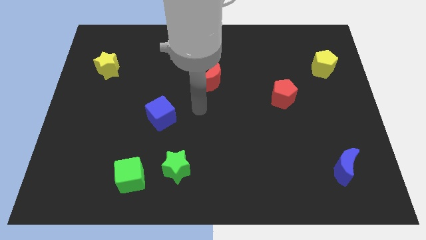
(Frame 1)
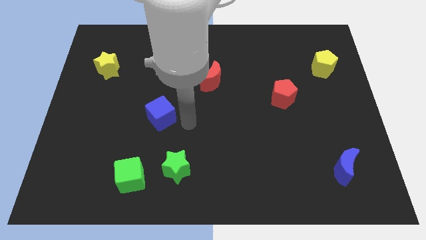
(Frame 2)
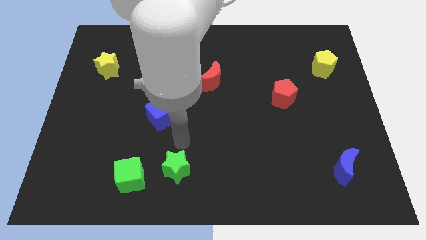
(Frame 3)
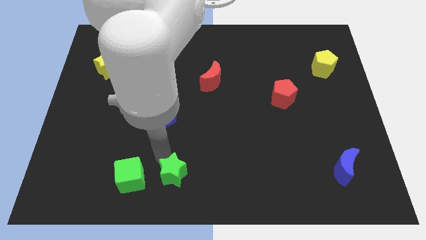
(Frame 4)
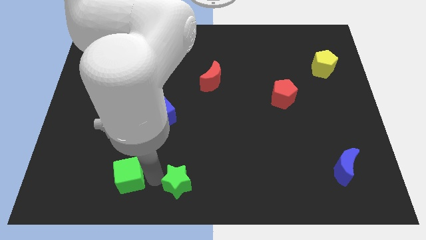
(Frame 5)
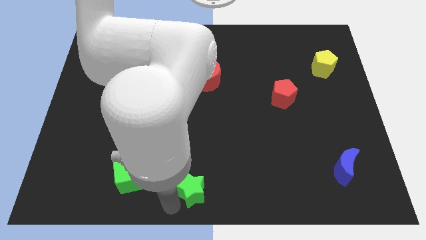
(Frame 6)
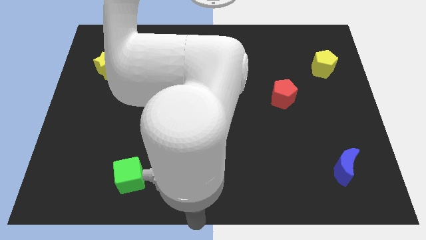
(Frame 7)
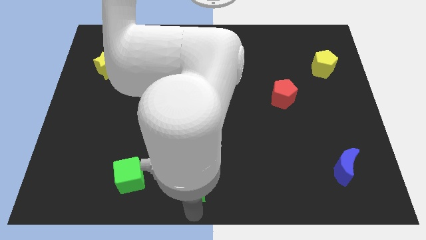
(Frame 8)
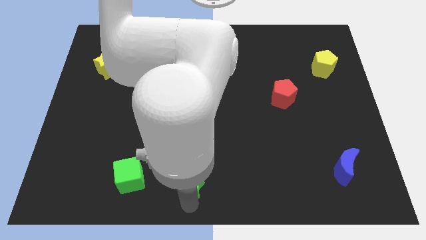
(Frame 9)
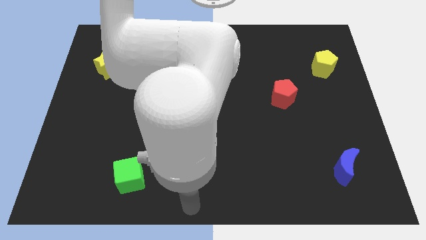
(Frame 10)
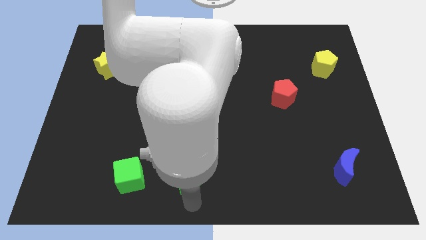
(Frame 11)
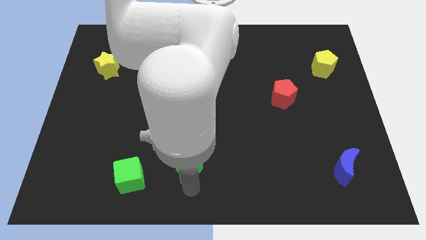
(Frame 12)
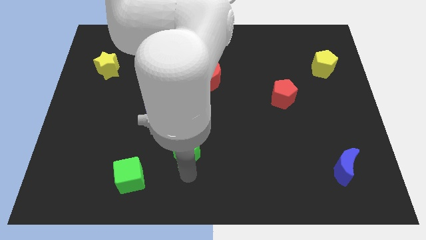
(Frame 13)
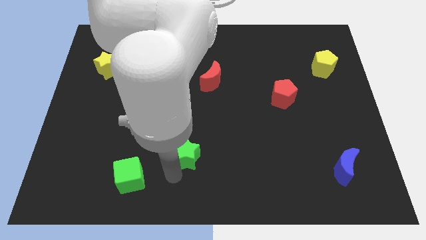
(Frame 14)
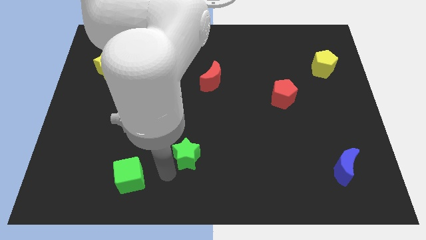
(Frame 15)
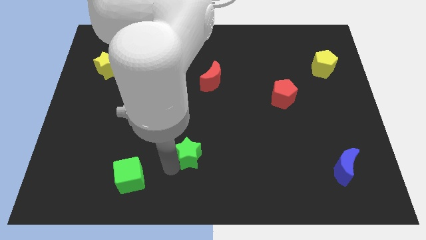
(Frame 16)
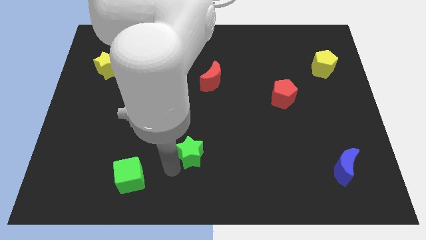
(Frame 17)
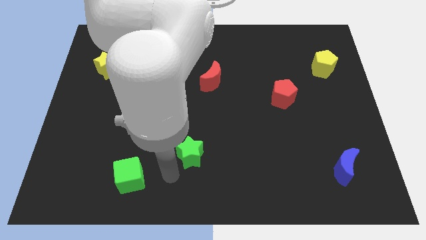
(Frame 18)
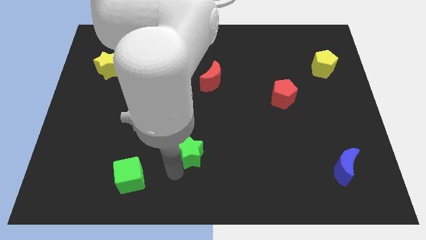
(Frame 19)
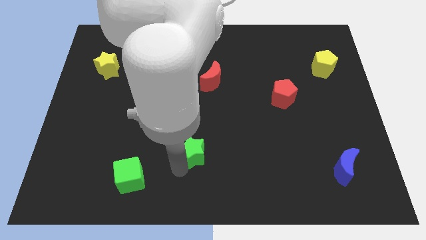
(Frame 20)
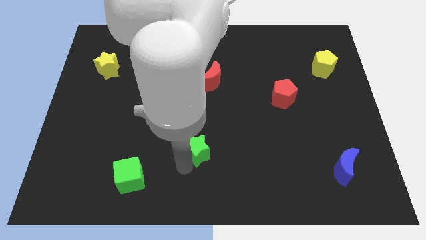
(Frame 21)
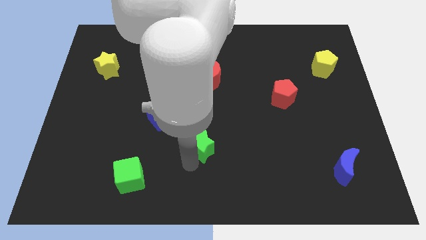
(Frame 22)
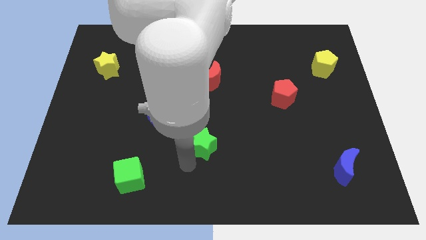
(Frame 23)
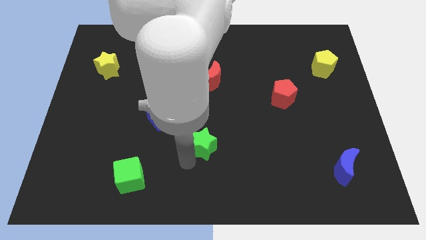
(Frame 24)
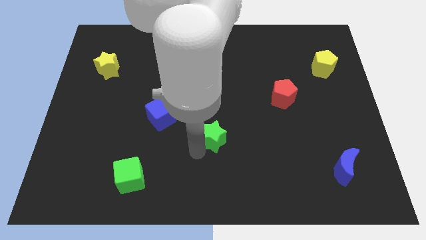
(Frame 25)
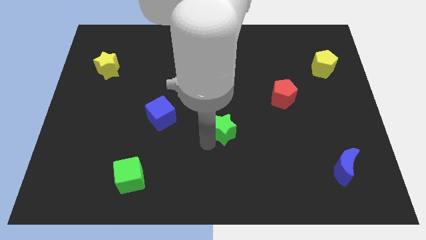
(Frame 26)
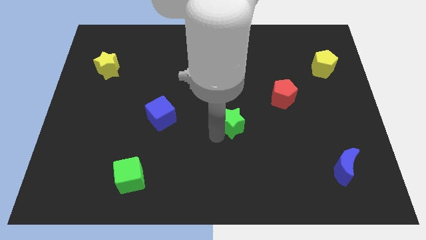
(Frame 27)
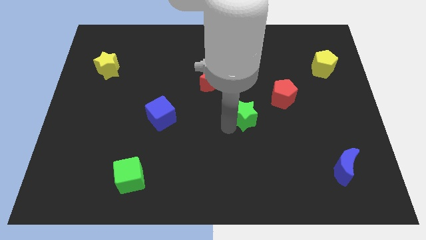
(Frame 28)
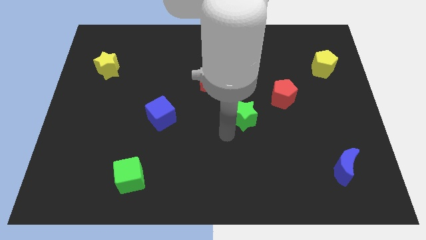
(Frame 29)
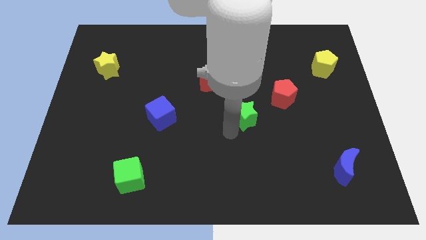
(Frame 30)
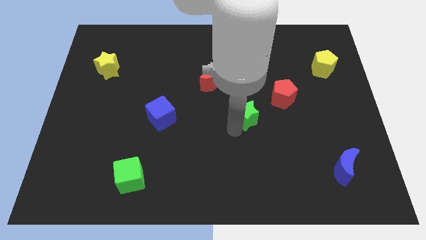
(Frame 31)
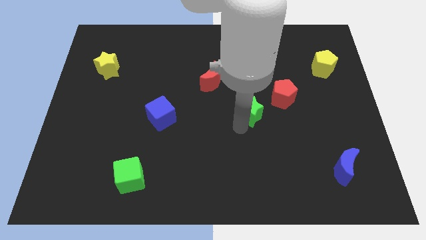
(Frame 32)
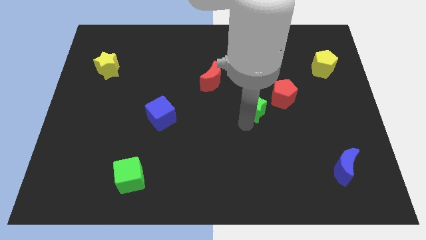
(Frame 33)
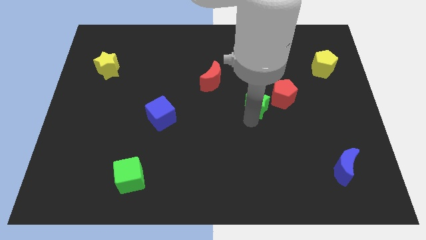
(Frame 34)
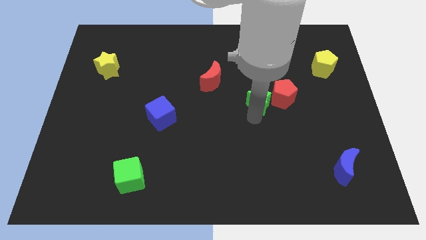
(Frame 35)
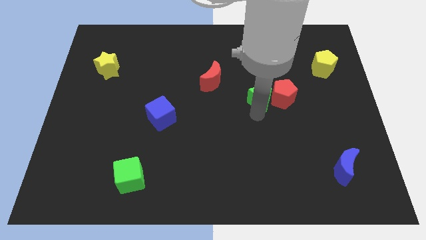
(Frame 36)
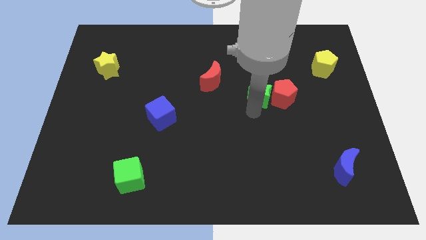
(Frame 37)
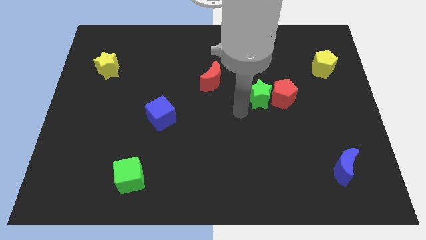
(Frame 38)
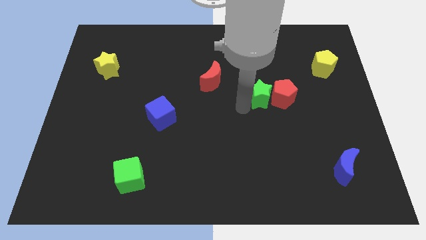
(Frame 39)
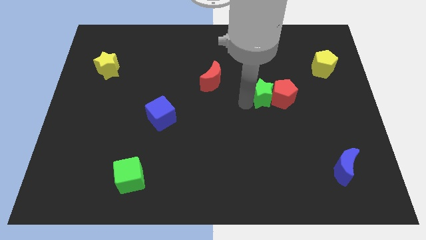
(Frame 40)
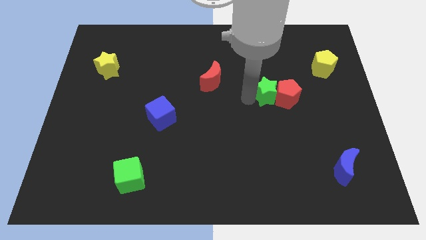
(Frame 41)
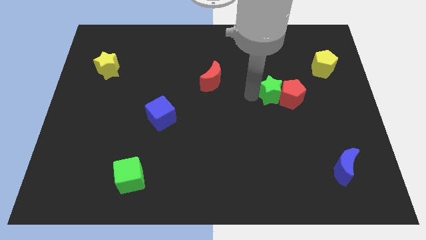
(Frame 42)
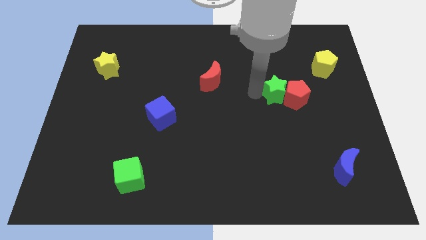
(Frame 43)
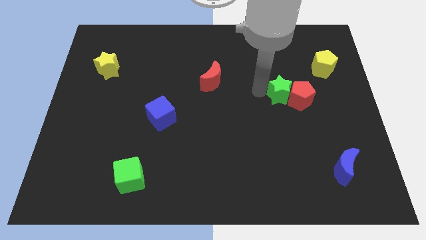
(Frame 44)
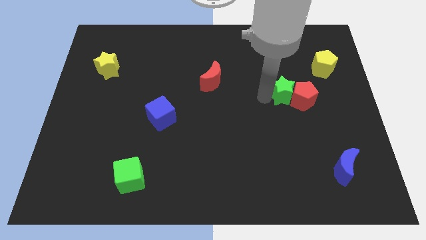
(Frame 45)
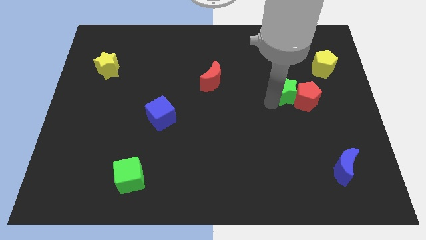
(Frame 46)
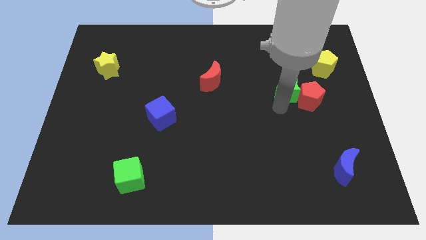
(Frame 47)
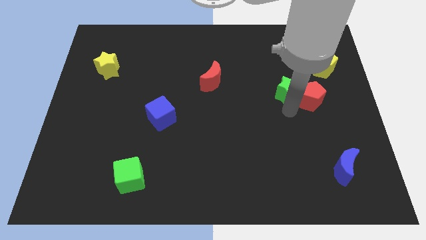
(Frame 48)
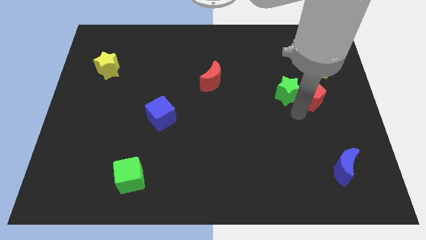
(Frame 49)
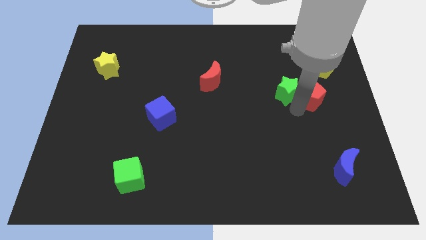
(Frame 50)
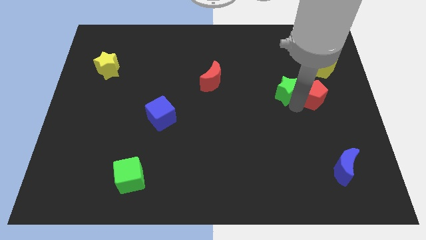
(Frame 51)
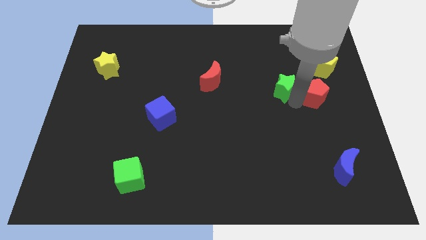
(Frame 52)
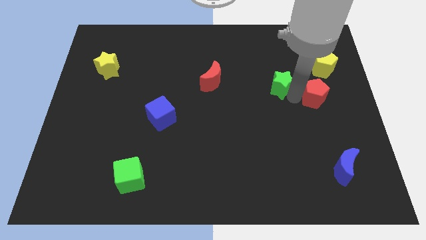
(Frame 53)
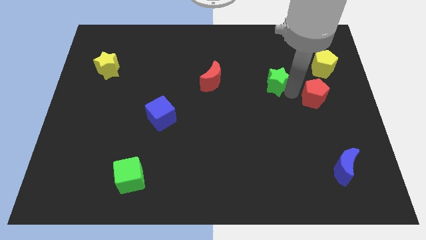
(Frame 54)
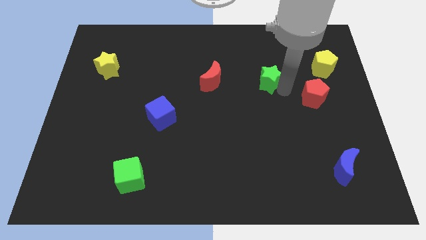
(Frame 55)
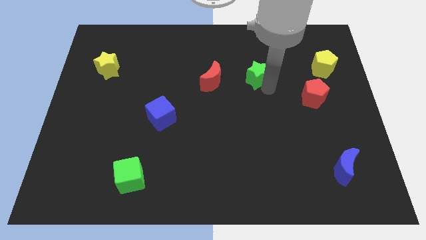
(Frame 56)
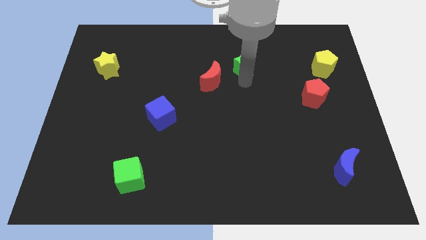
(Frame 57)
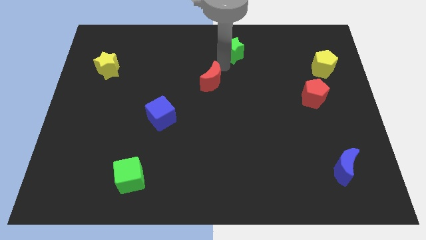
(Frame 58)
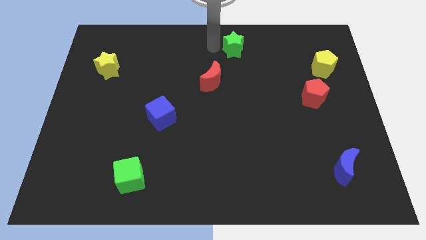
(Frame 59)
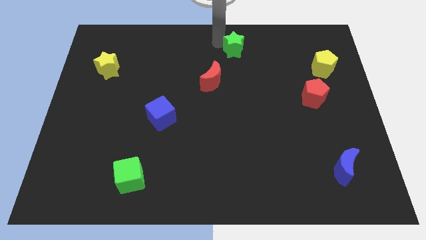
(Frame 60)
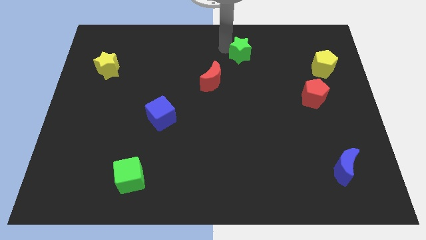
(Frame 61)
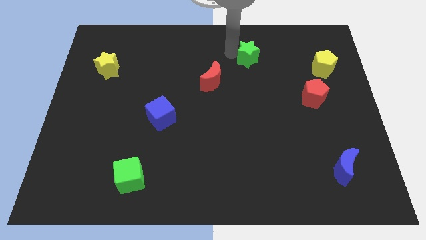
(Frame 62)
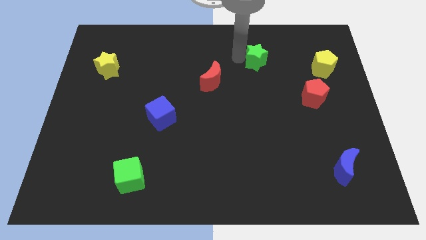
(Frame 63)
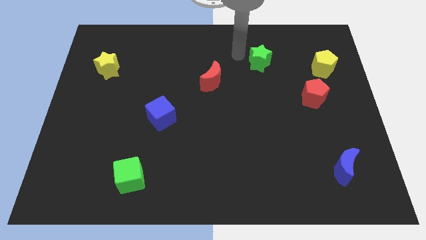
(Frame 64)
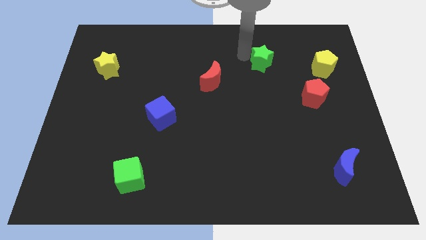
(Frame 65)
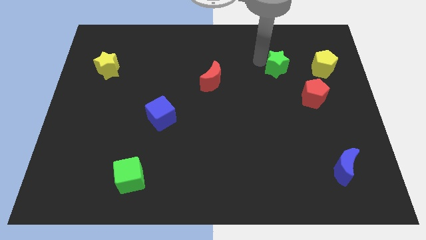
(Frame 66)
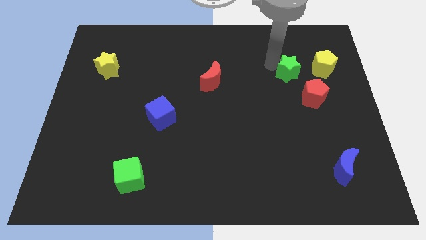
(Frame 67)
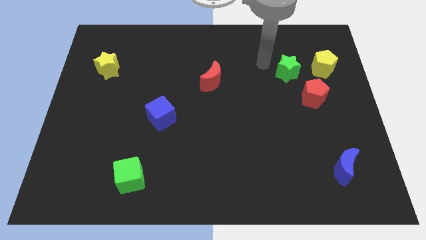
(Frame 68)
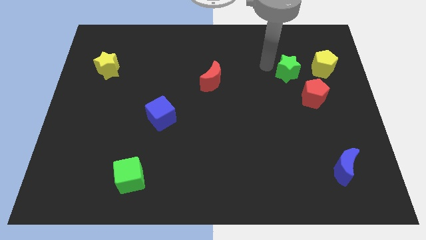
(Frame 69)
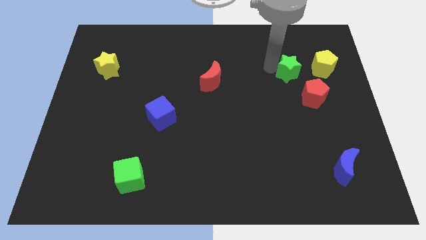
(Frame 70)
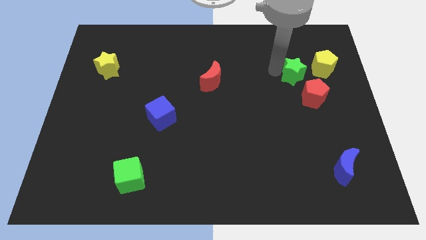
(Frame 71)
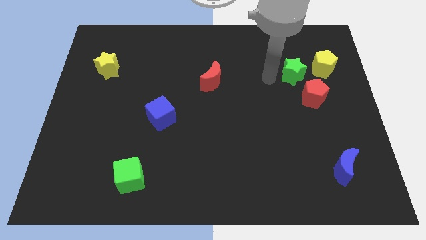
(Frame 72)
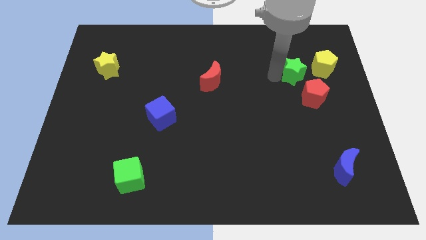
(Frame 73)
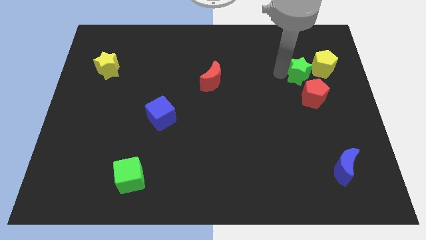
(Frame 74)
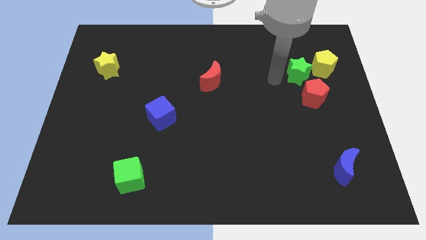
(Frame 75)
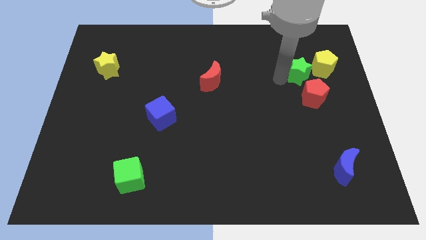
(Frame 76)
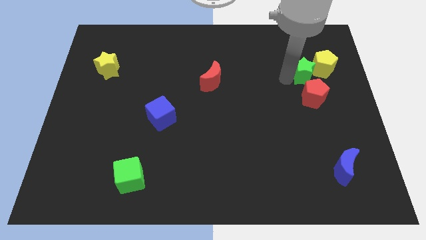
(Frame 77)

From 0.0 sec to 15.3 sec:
push the green star next to the yellow pentagon
